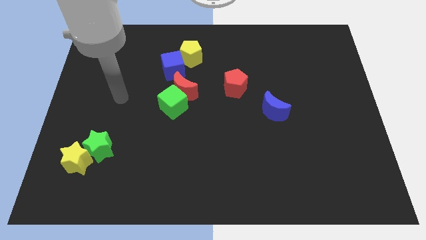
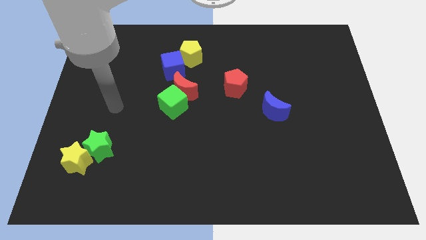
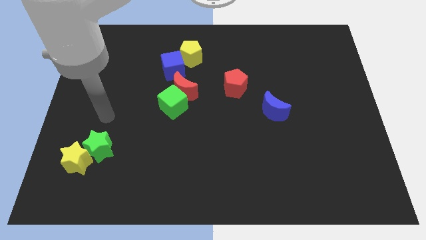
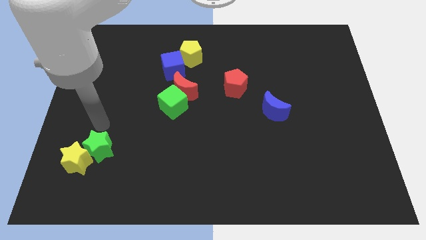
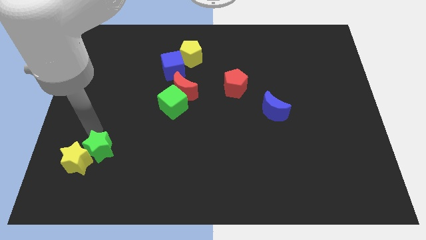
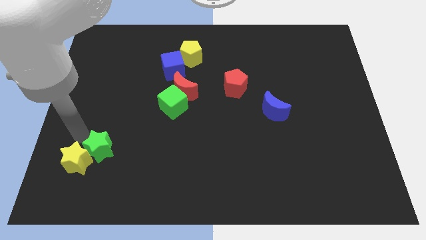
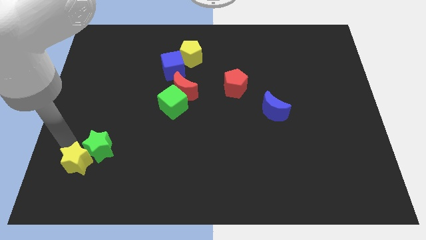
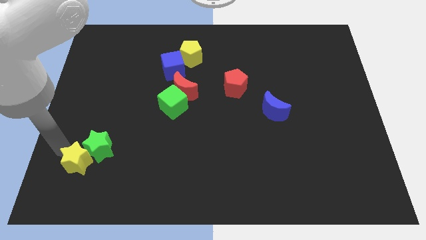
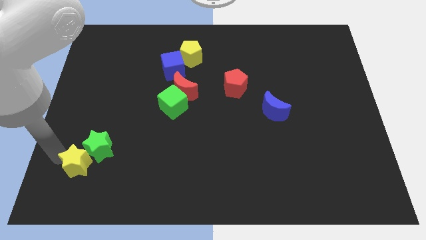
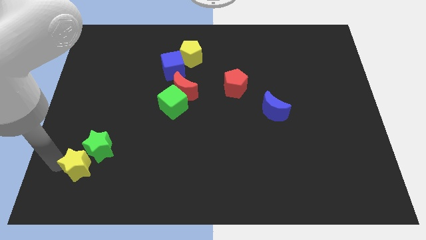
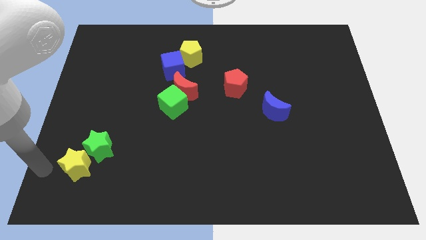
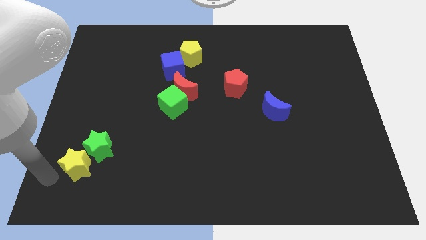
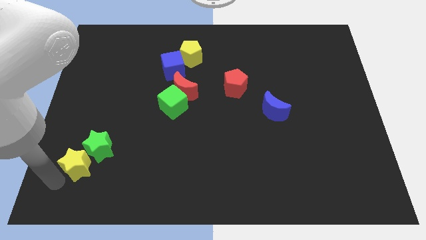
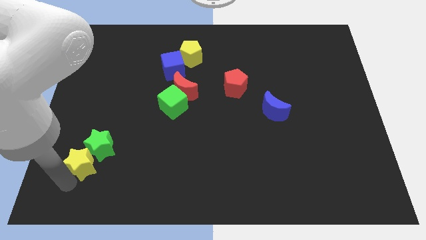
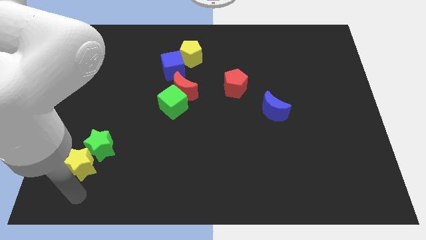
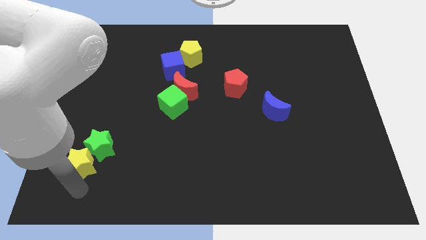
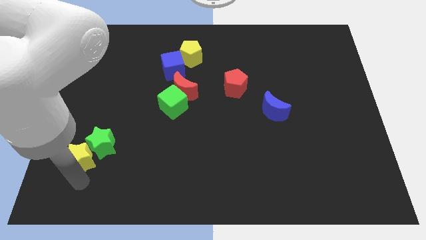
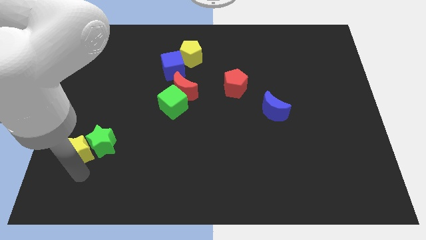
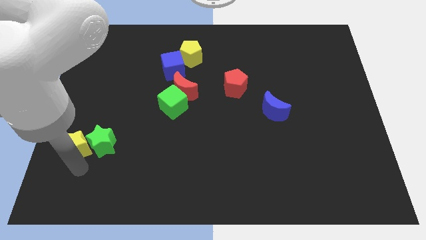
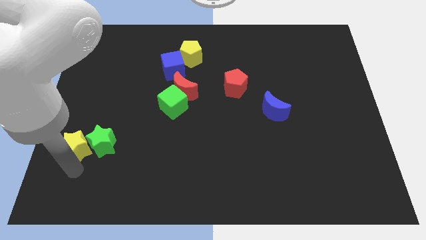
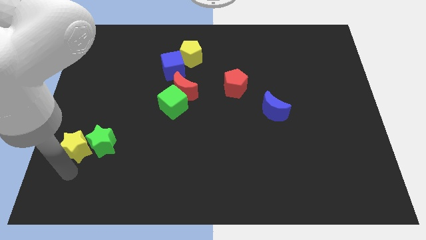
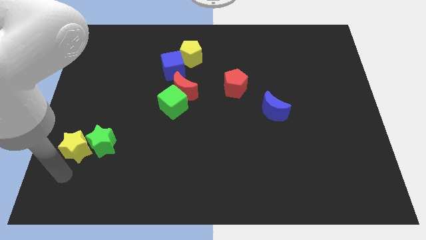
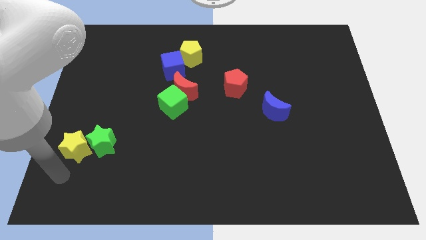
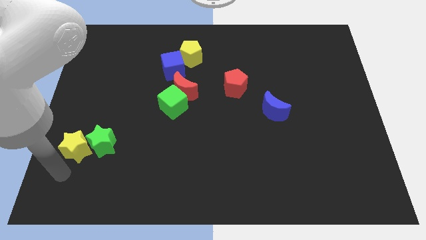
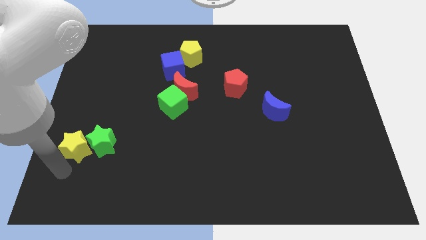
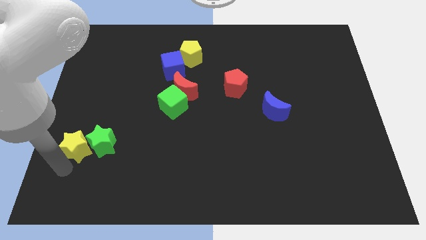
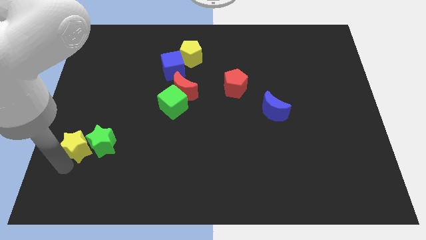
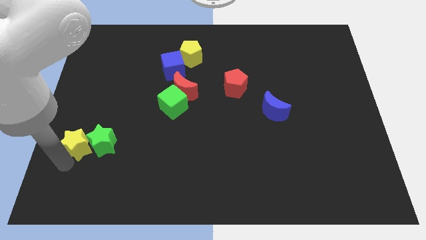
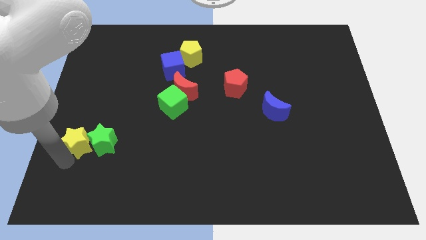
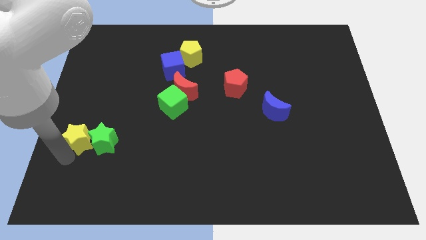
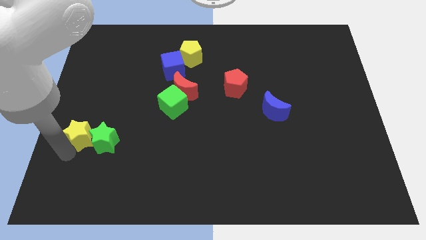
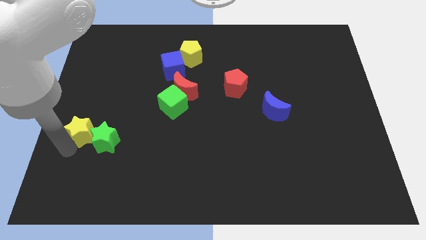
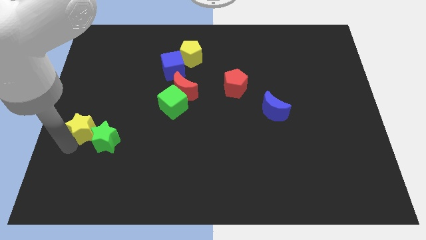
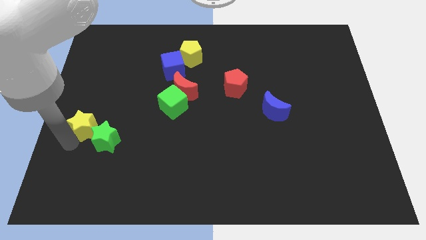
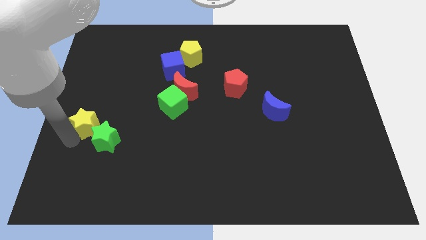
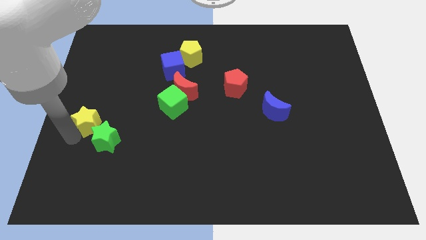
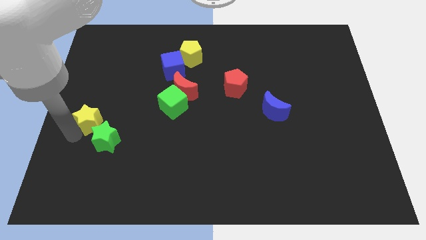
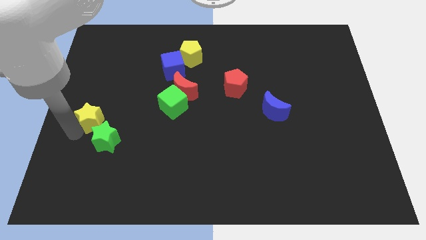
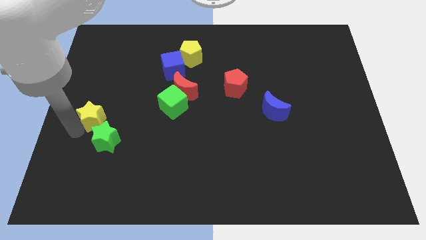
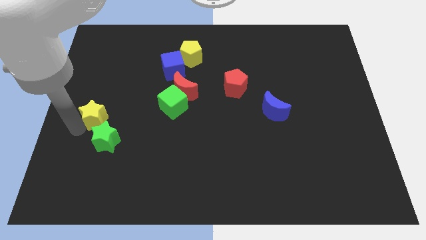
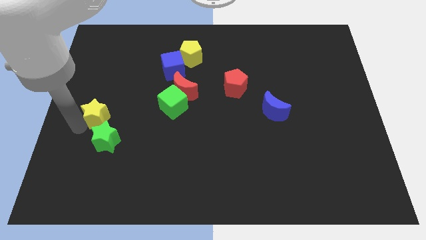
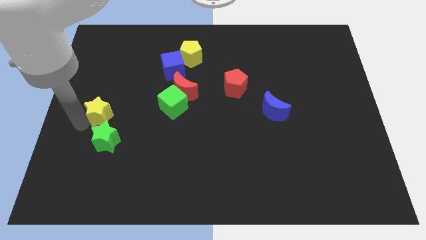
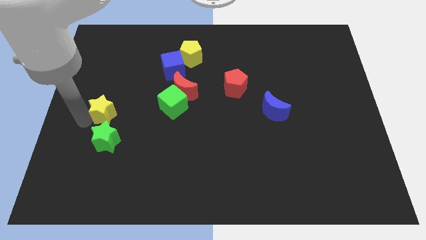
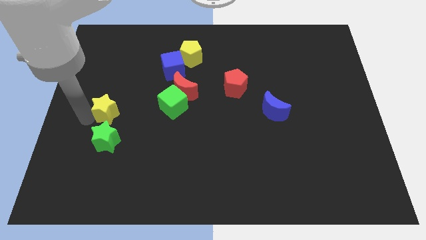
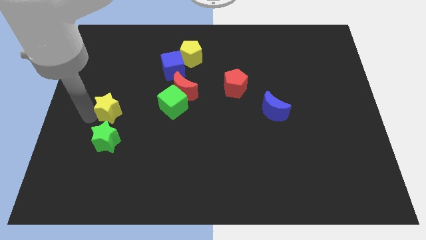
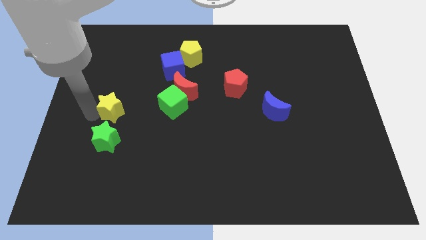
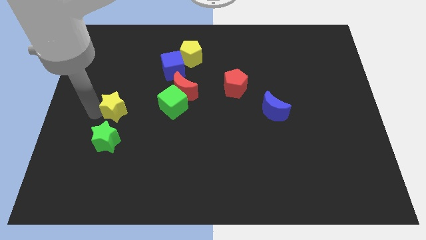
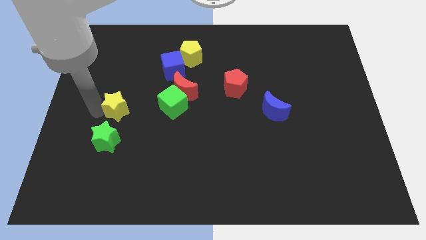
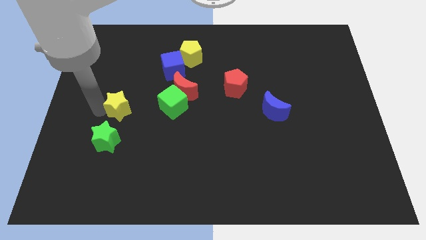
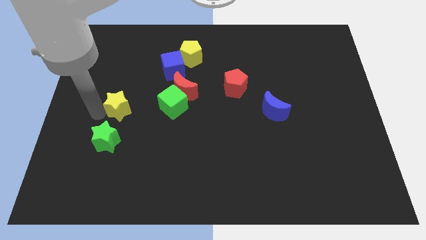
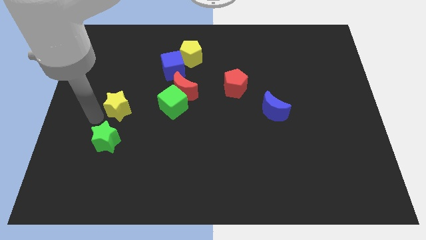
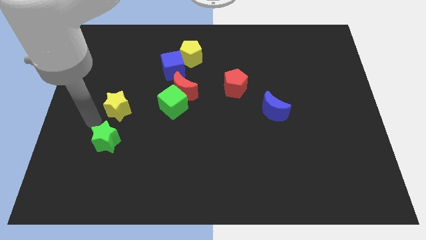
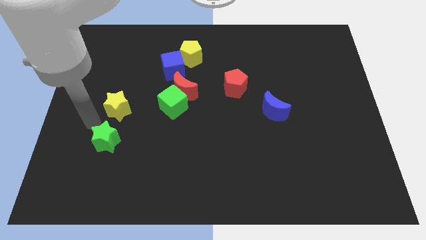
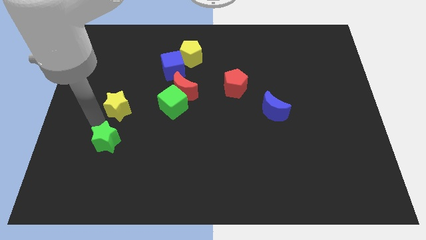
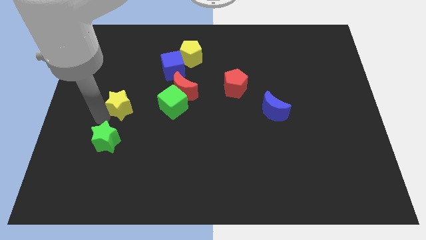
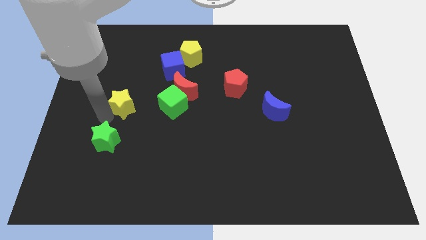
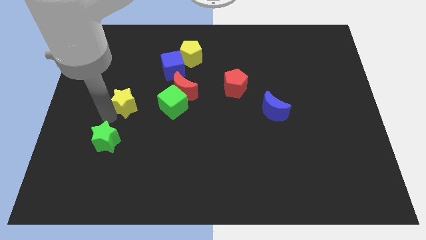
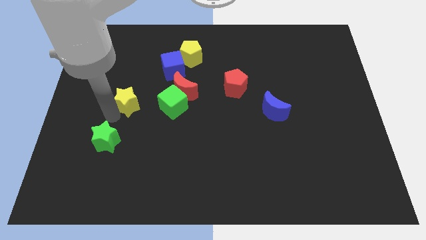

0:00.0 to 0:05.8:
slide the yellow star to the left side of the red moon

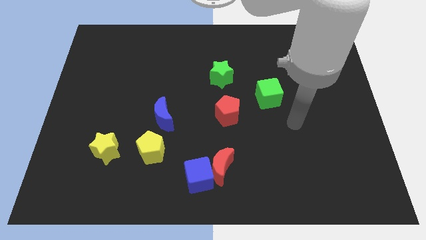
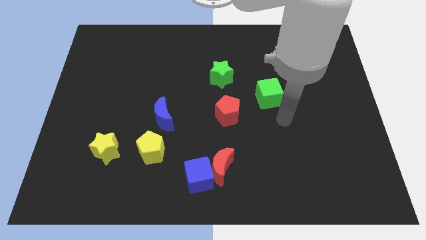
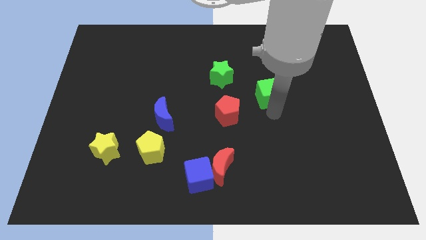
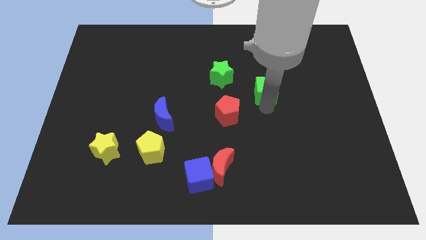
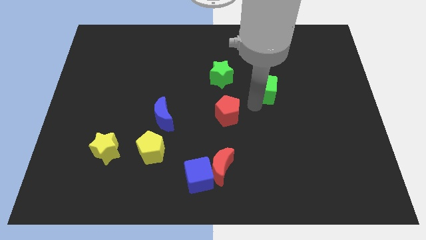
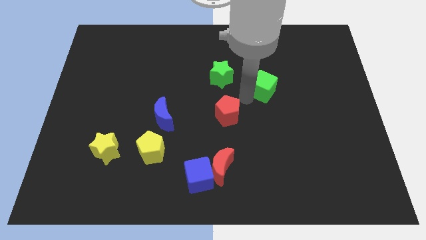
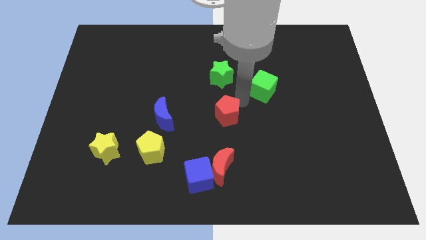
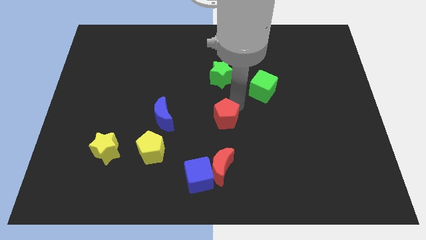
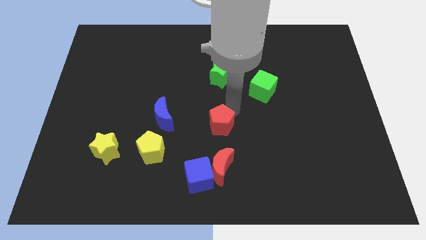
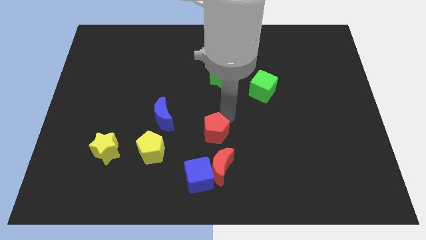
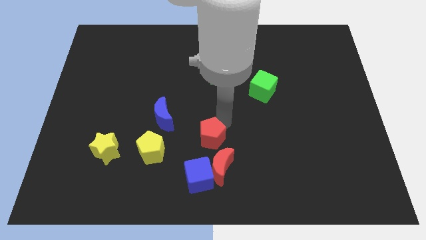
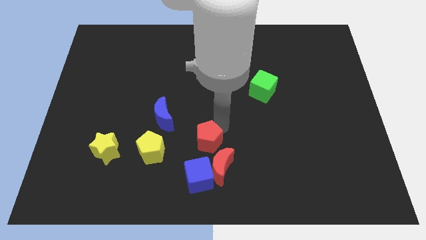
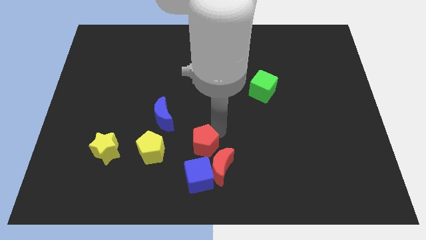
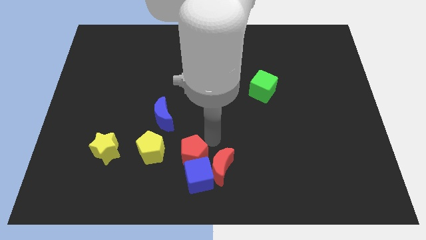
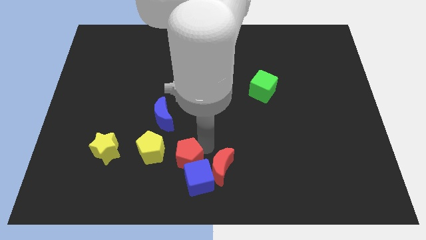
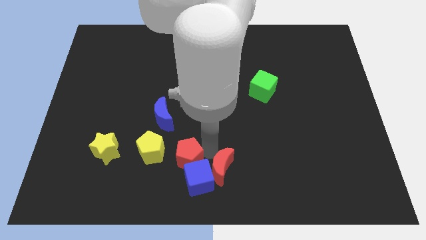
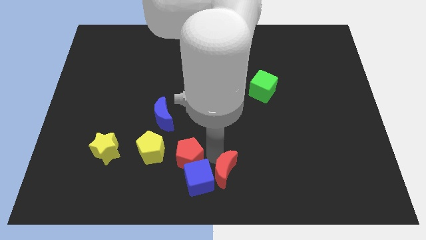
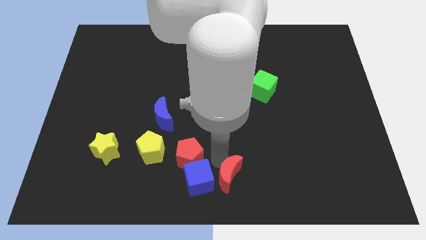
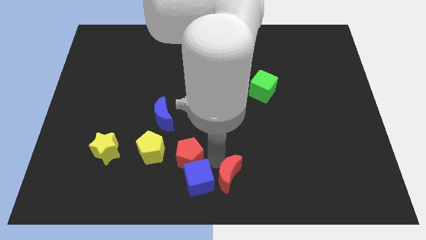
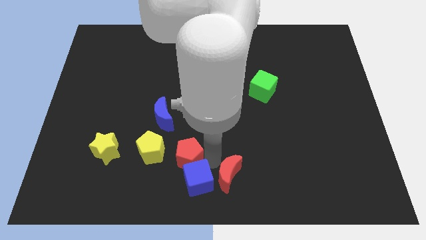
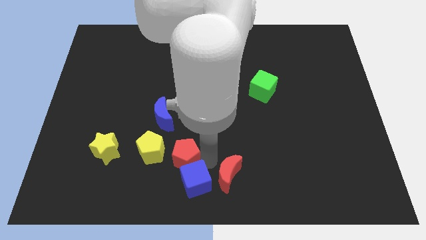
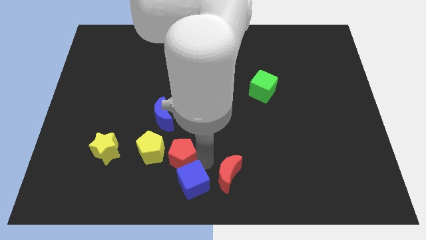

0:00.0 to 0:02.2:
push the red pentagon to the right side of the yellow star
